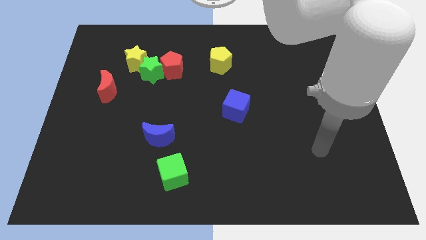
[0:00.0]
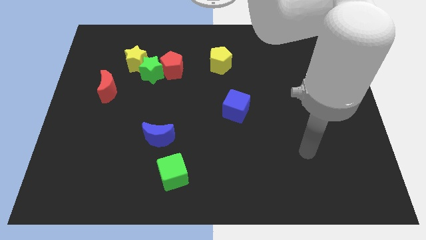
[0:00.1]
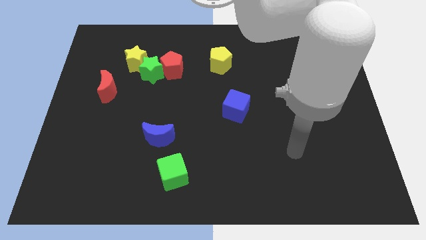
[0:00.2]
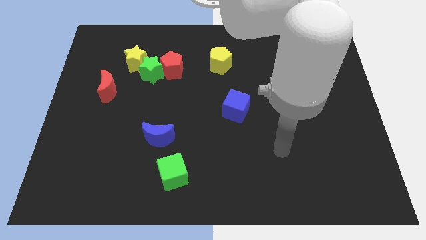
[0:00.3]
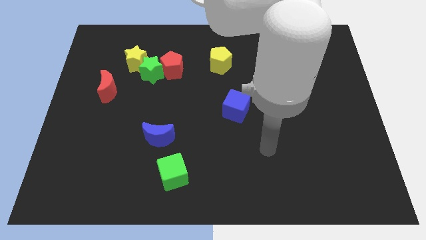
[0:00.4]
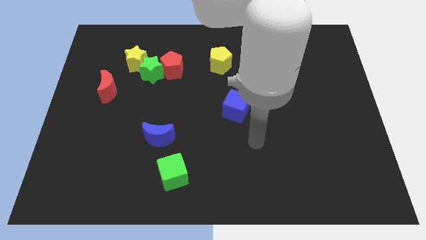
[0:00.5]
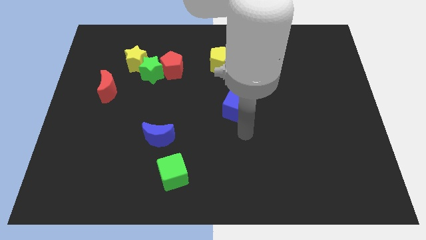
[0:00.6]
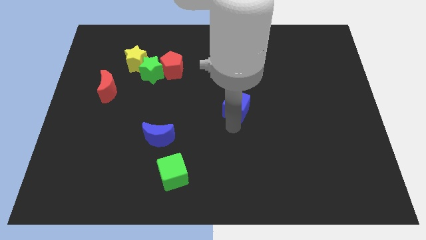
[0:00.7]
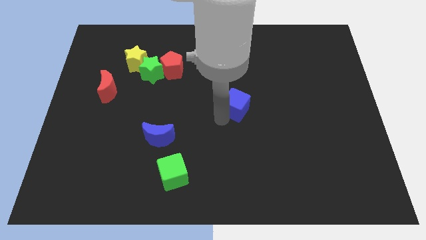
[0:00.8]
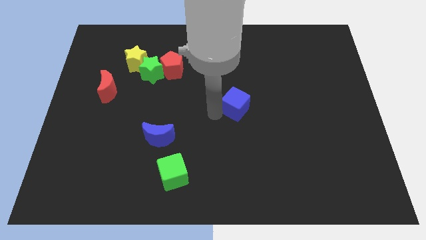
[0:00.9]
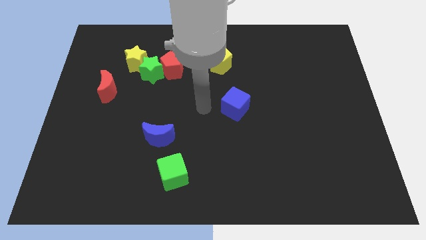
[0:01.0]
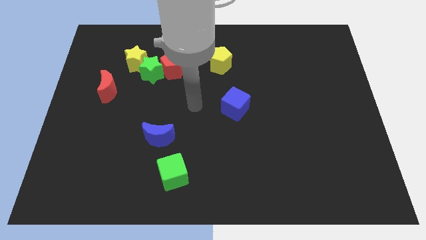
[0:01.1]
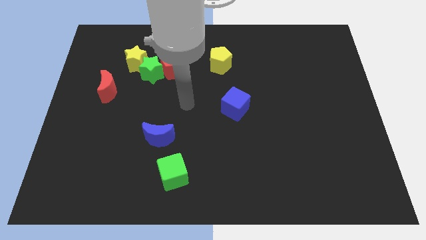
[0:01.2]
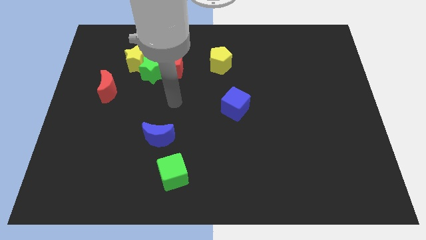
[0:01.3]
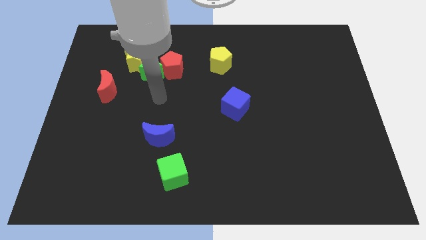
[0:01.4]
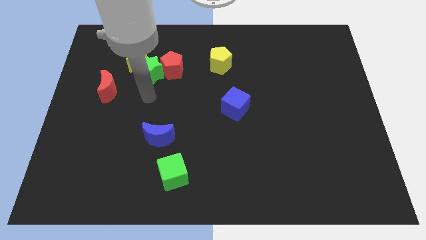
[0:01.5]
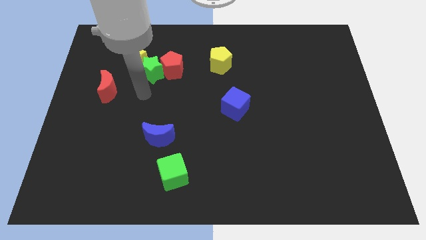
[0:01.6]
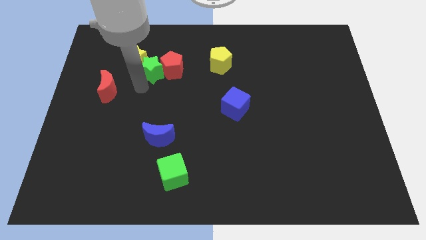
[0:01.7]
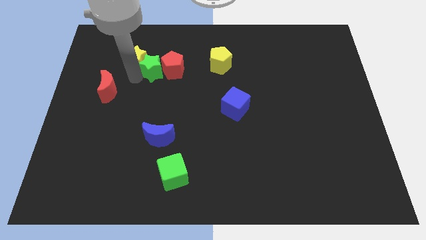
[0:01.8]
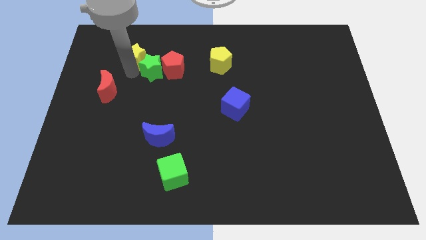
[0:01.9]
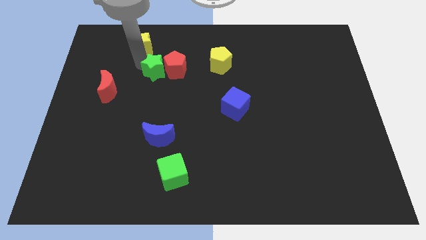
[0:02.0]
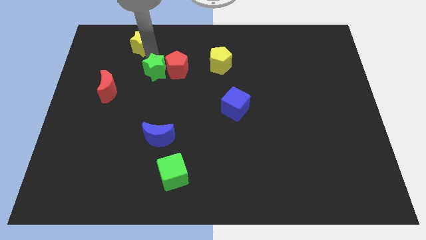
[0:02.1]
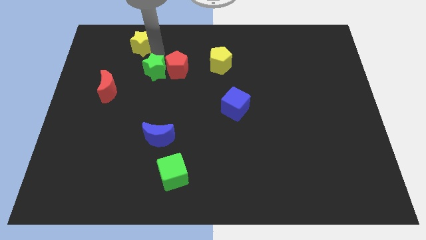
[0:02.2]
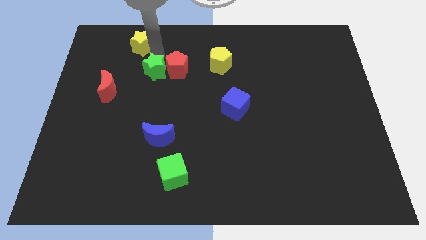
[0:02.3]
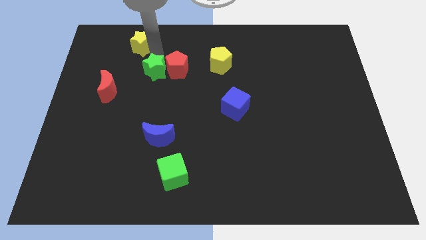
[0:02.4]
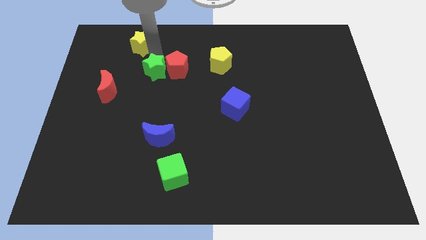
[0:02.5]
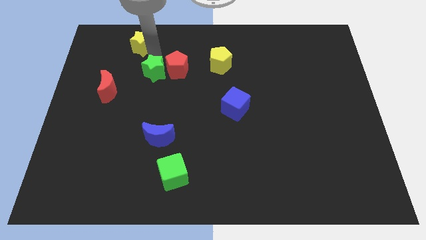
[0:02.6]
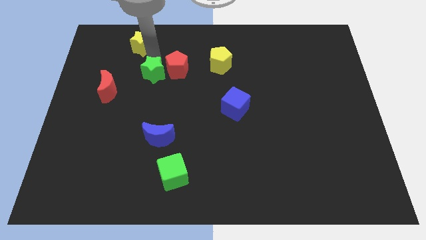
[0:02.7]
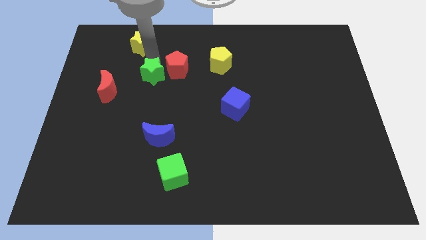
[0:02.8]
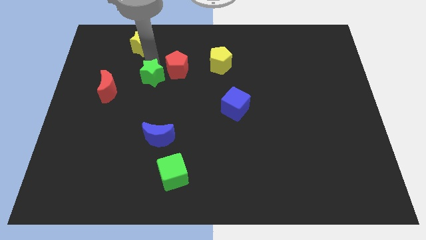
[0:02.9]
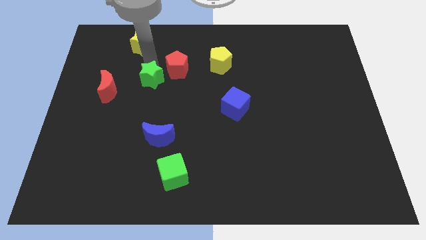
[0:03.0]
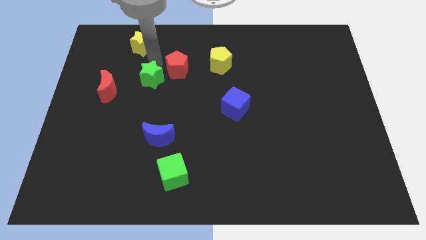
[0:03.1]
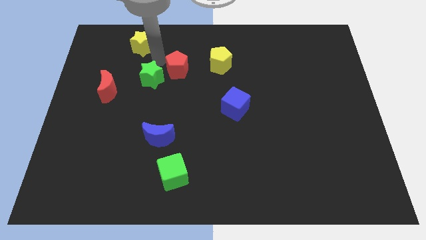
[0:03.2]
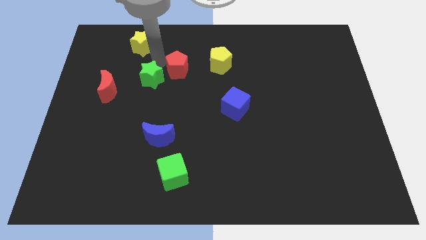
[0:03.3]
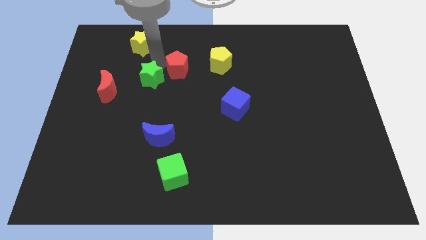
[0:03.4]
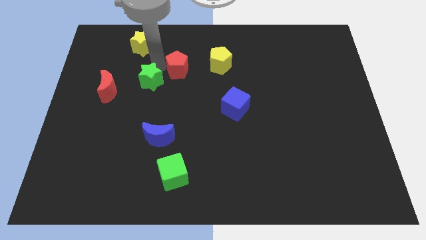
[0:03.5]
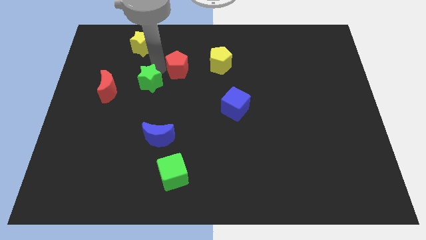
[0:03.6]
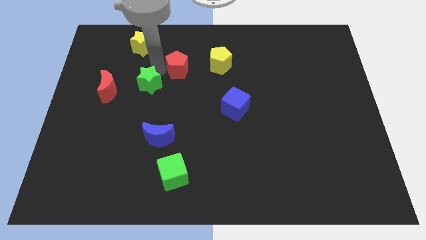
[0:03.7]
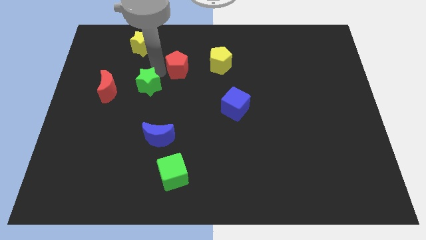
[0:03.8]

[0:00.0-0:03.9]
move the green star away from the red pentagon and yellow star

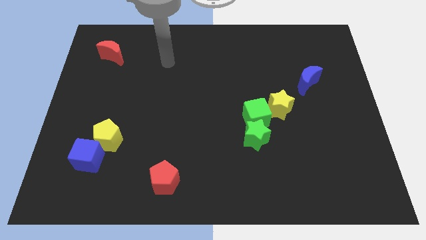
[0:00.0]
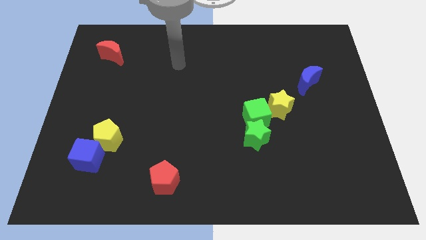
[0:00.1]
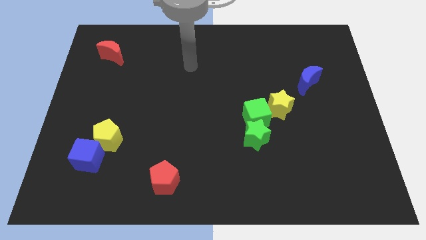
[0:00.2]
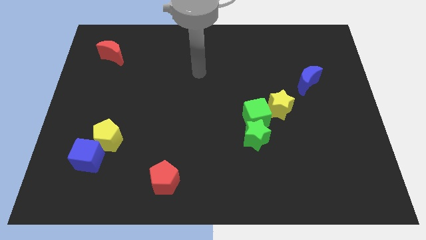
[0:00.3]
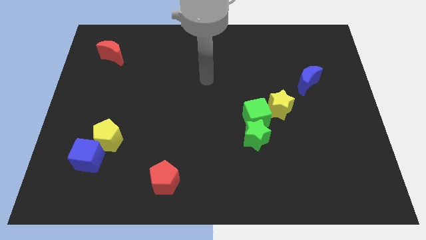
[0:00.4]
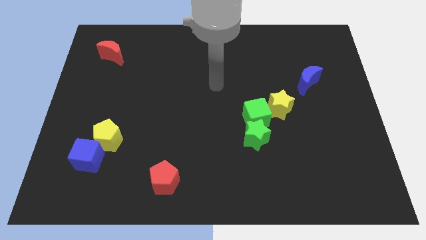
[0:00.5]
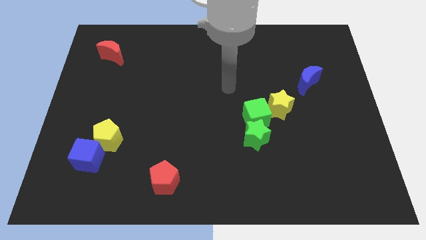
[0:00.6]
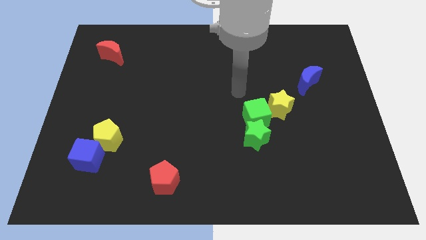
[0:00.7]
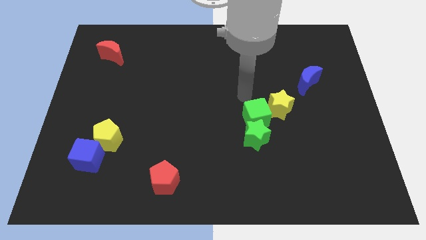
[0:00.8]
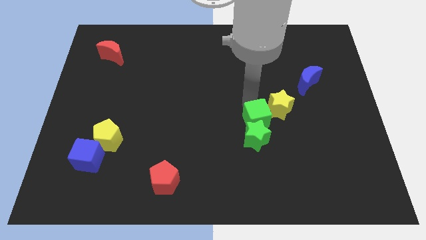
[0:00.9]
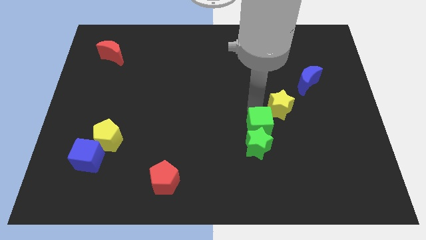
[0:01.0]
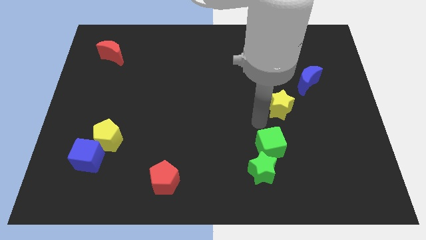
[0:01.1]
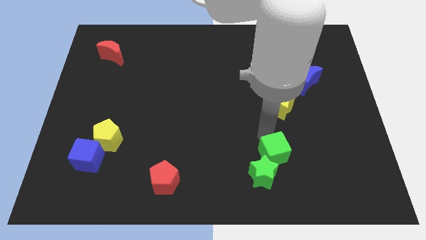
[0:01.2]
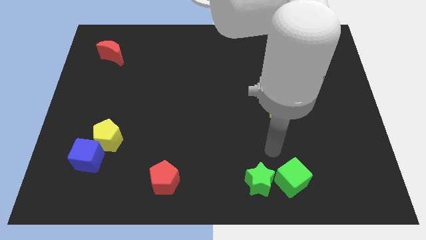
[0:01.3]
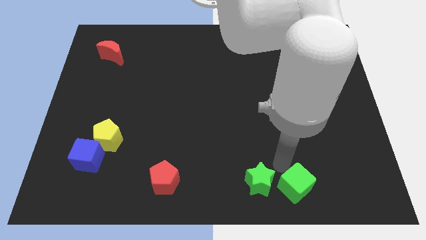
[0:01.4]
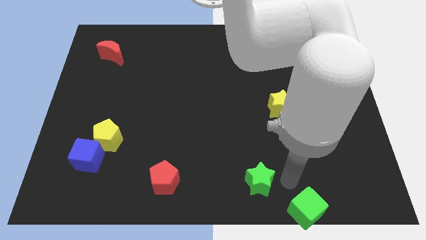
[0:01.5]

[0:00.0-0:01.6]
separate the green star from the green cube

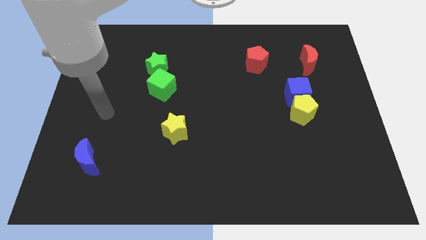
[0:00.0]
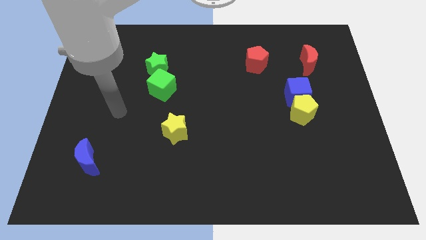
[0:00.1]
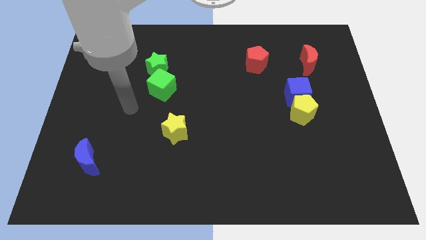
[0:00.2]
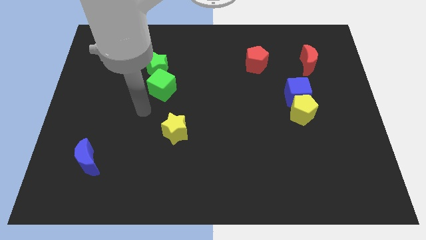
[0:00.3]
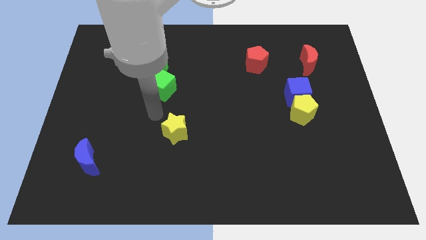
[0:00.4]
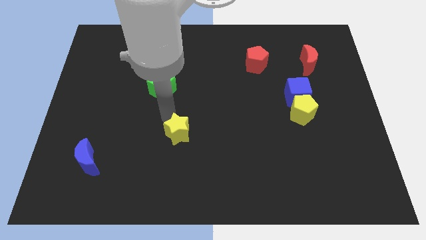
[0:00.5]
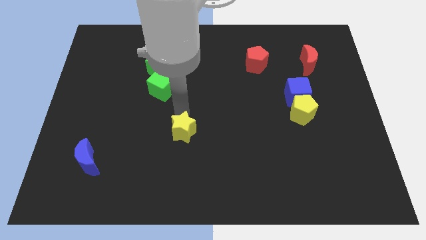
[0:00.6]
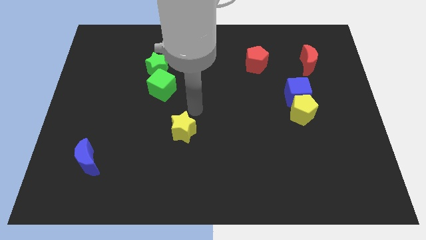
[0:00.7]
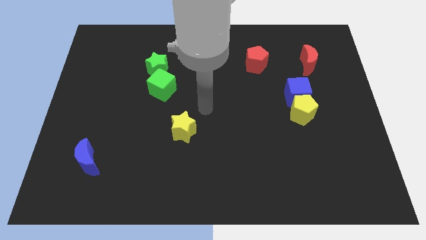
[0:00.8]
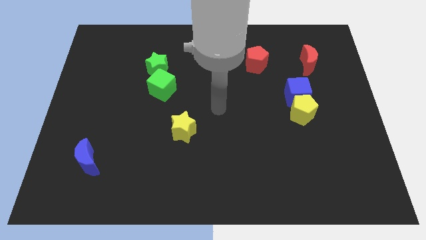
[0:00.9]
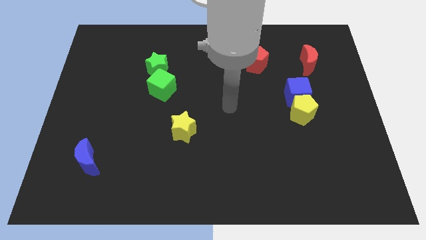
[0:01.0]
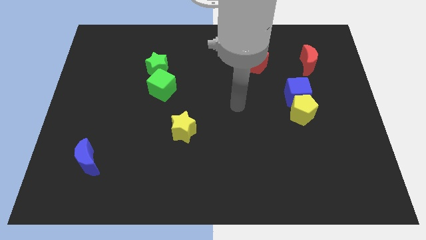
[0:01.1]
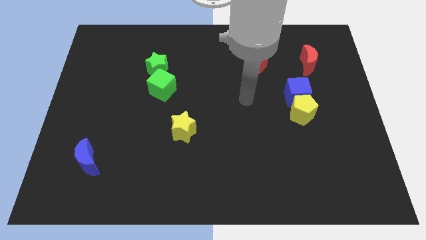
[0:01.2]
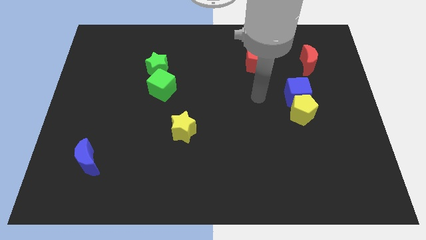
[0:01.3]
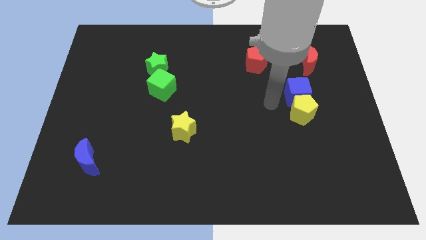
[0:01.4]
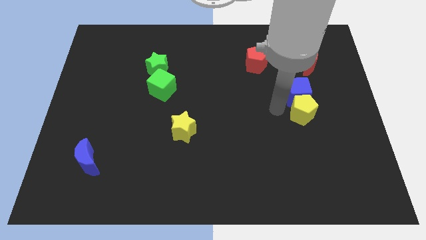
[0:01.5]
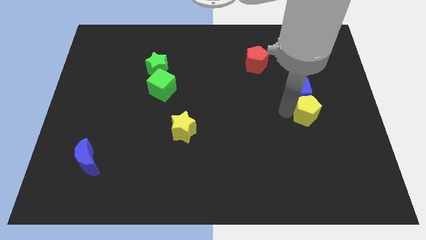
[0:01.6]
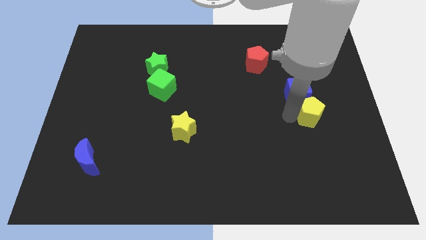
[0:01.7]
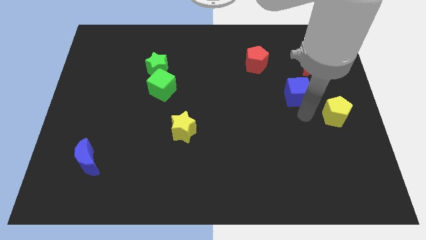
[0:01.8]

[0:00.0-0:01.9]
move the blue cube away from the yellow pentagon

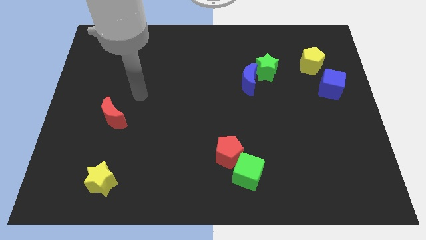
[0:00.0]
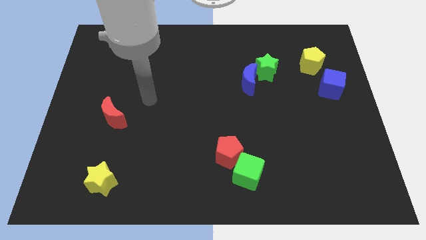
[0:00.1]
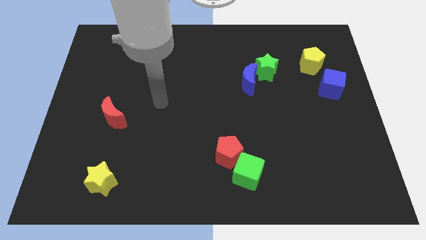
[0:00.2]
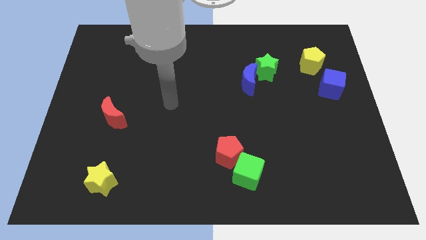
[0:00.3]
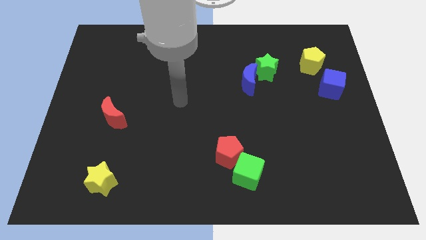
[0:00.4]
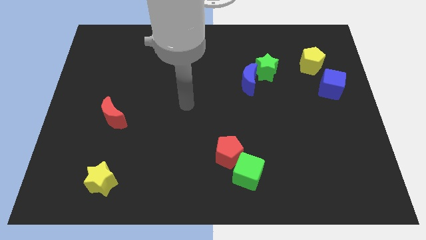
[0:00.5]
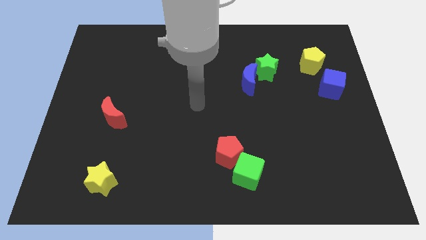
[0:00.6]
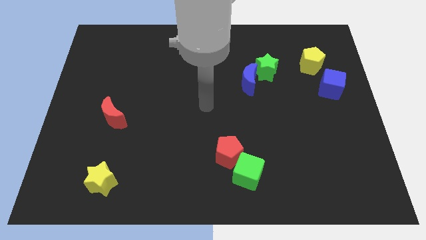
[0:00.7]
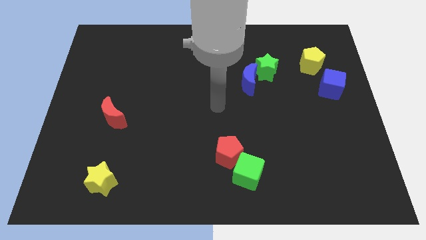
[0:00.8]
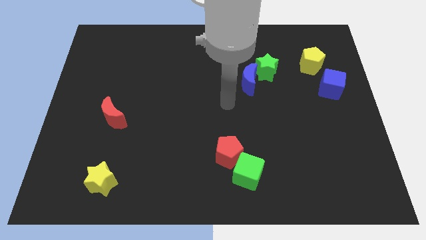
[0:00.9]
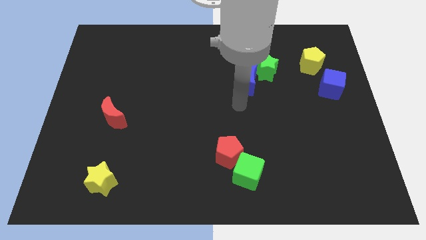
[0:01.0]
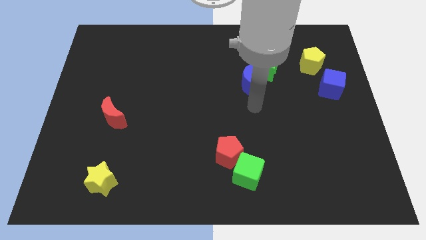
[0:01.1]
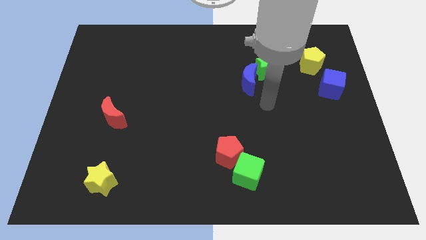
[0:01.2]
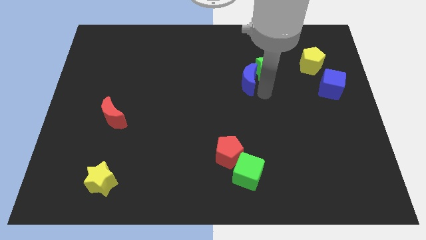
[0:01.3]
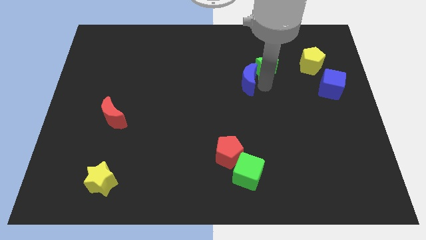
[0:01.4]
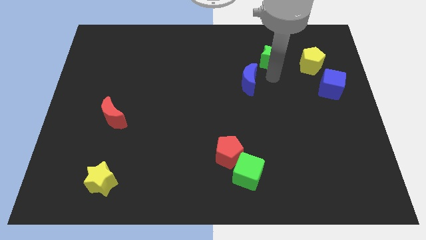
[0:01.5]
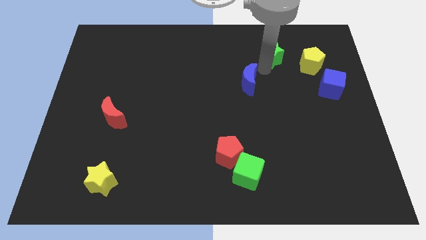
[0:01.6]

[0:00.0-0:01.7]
move the blue moon away from the green star

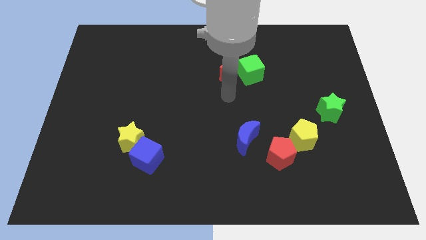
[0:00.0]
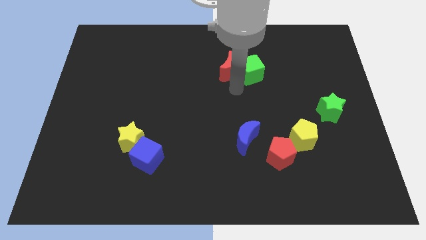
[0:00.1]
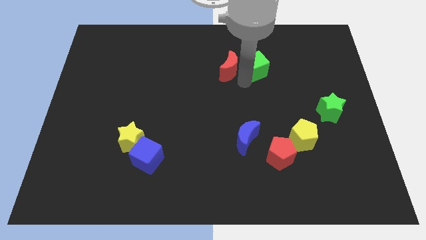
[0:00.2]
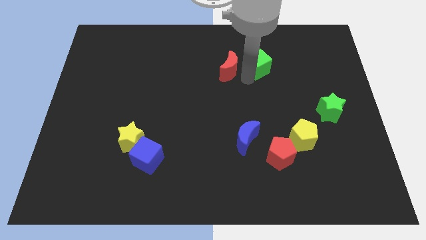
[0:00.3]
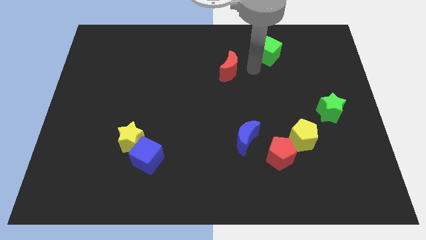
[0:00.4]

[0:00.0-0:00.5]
move the red moon away from the green cube
